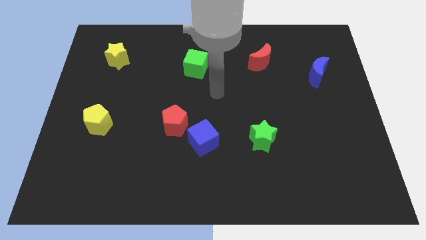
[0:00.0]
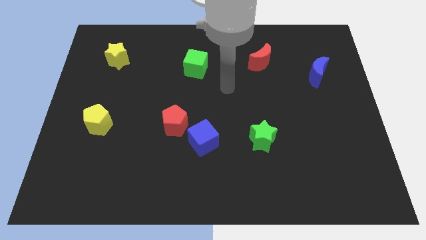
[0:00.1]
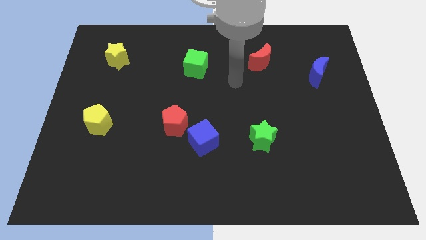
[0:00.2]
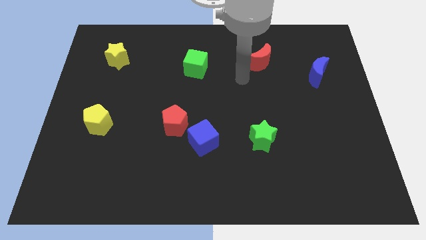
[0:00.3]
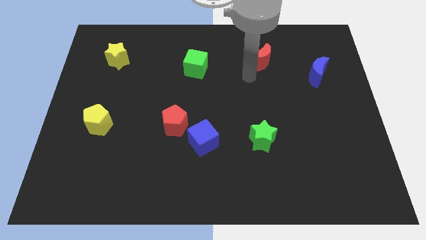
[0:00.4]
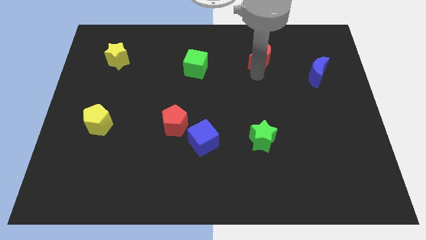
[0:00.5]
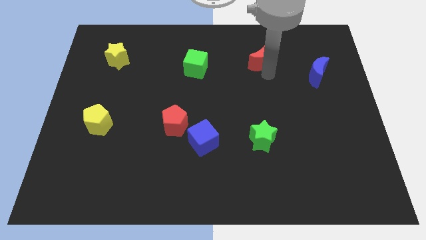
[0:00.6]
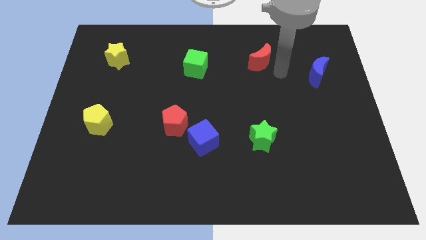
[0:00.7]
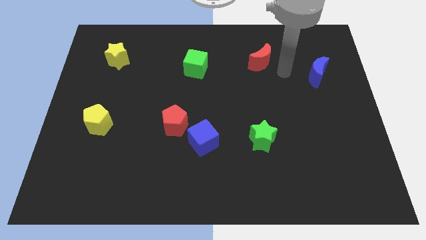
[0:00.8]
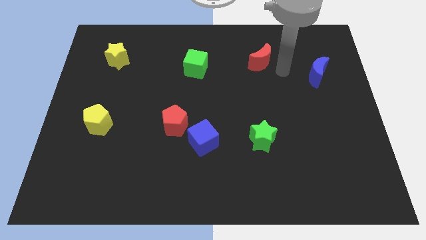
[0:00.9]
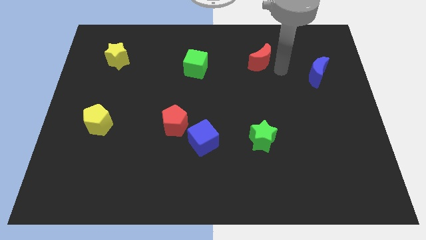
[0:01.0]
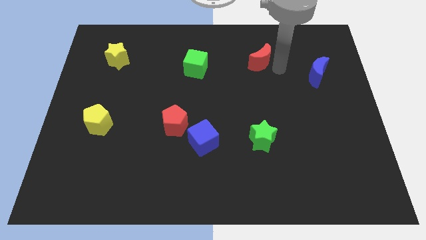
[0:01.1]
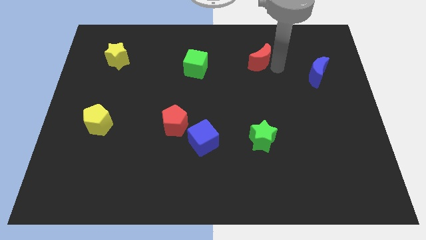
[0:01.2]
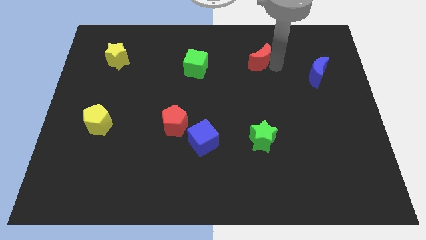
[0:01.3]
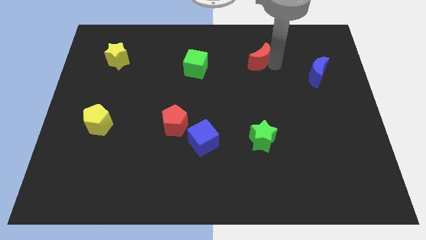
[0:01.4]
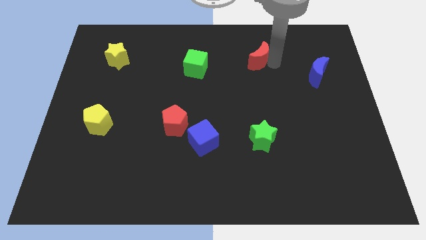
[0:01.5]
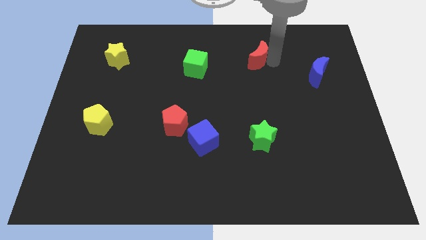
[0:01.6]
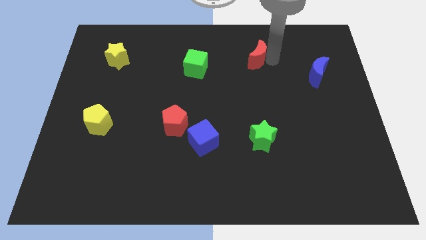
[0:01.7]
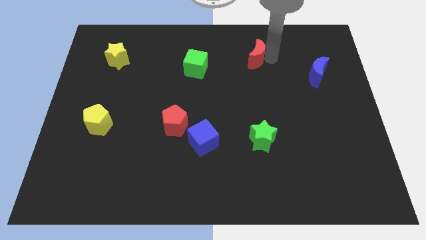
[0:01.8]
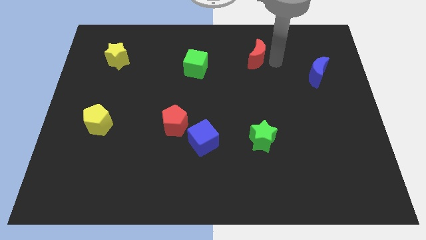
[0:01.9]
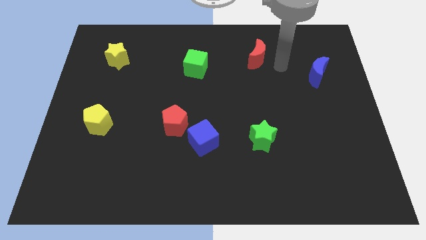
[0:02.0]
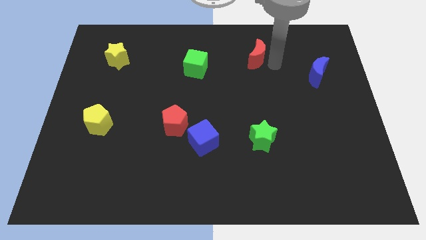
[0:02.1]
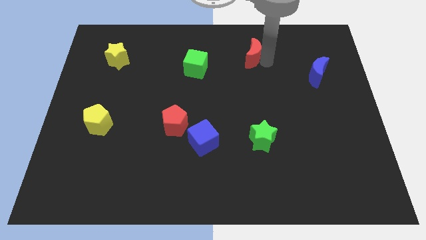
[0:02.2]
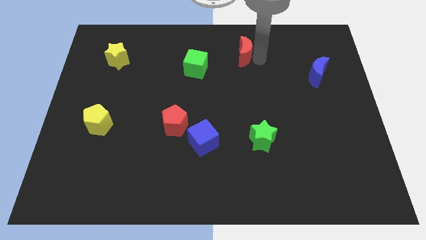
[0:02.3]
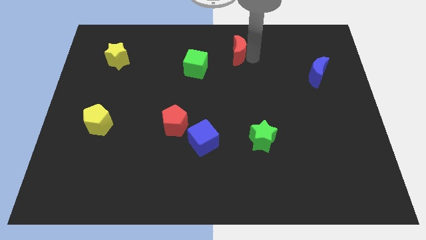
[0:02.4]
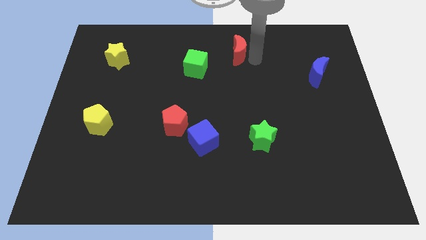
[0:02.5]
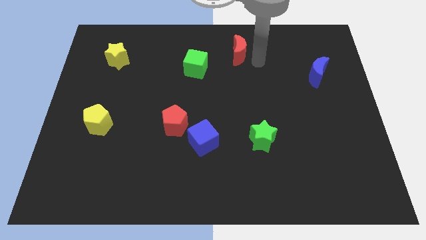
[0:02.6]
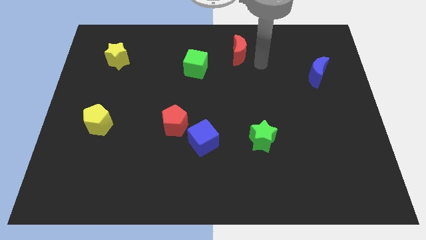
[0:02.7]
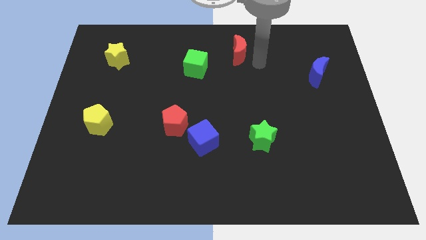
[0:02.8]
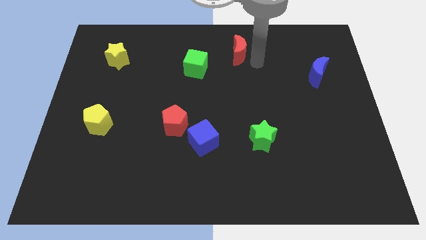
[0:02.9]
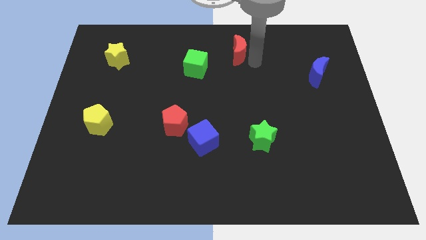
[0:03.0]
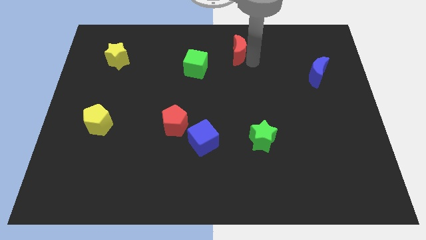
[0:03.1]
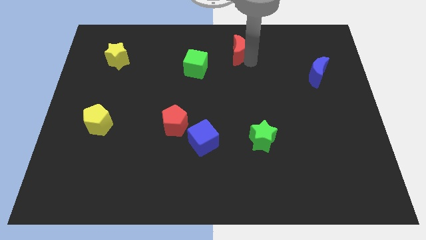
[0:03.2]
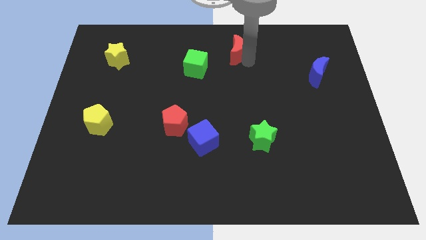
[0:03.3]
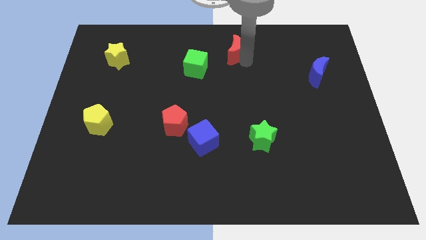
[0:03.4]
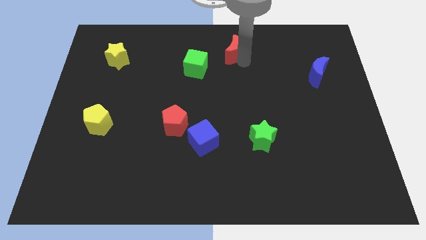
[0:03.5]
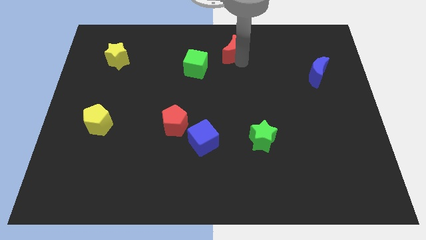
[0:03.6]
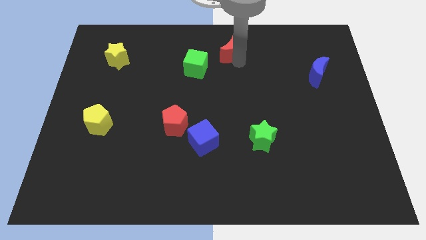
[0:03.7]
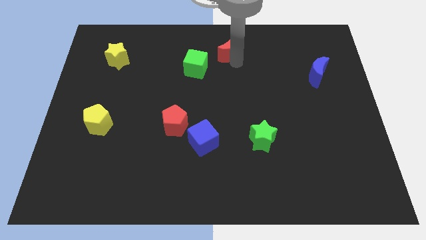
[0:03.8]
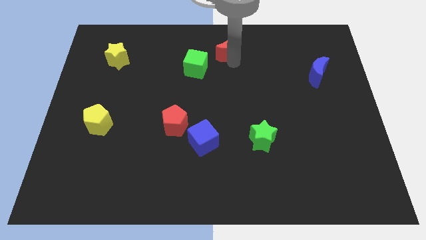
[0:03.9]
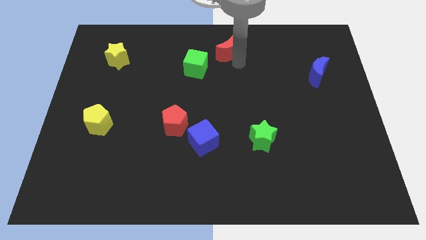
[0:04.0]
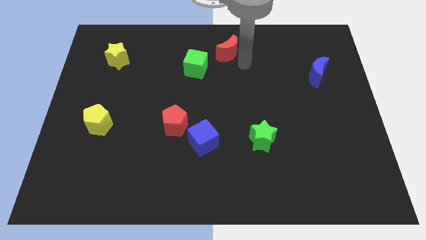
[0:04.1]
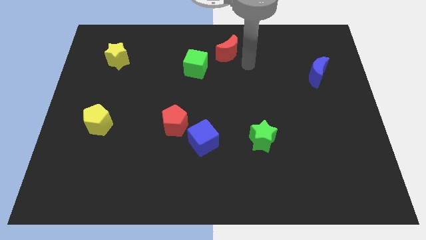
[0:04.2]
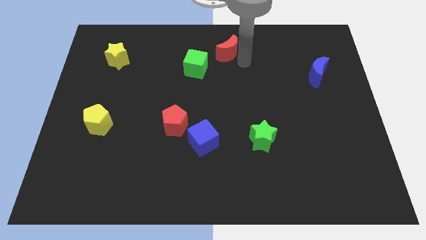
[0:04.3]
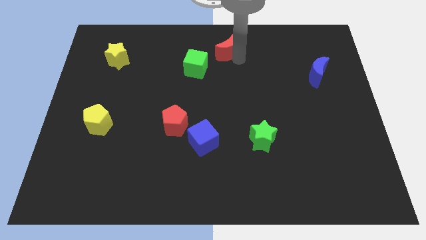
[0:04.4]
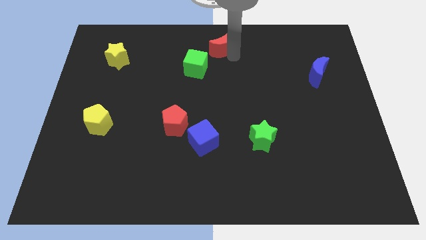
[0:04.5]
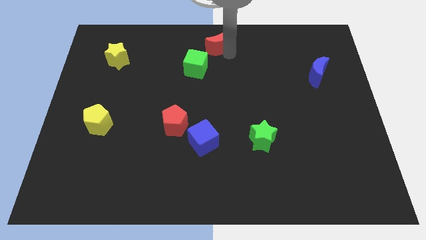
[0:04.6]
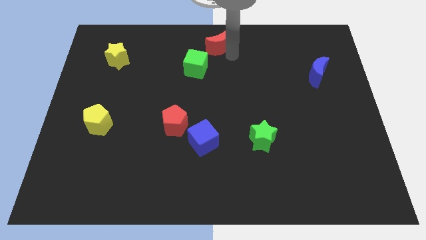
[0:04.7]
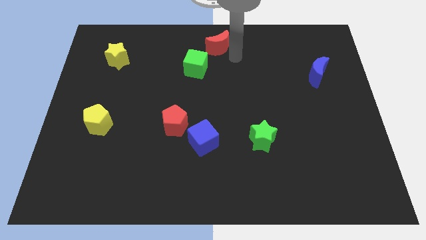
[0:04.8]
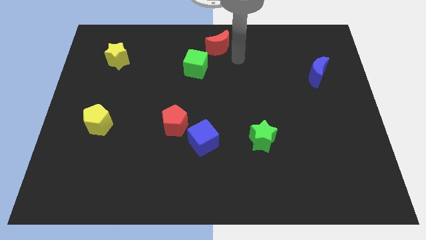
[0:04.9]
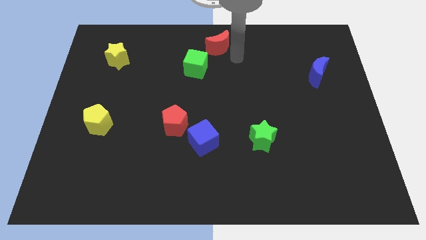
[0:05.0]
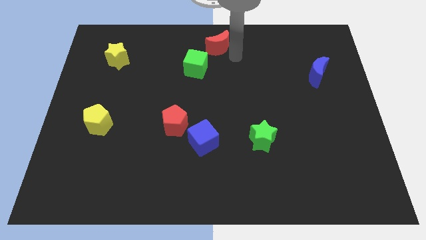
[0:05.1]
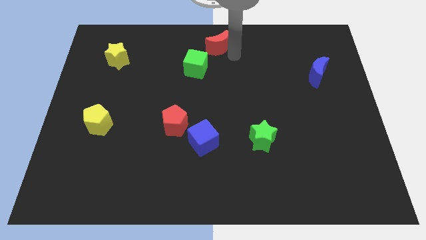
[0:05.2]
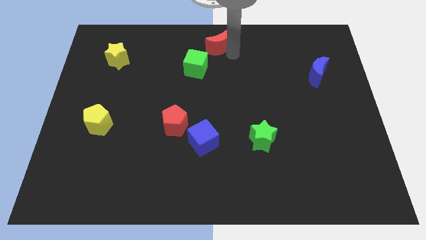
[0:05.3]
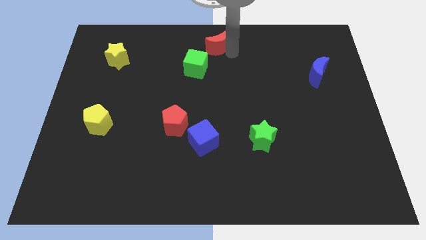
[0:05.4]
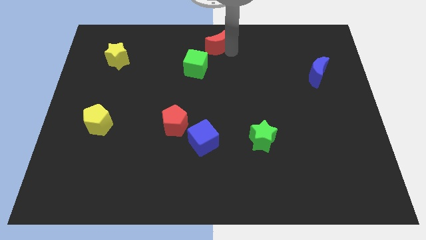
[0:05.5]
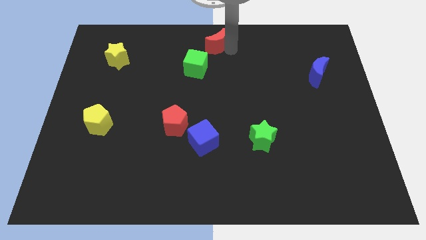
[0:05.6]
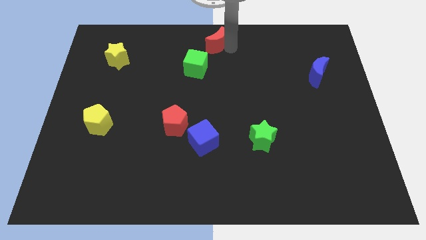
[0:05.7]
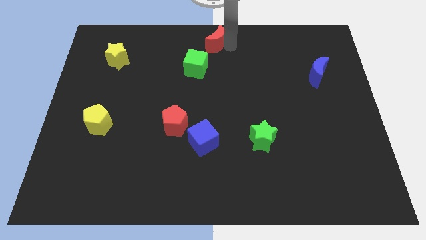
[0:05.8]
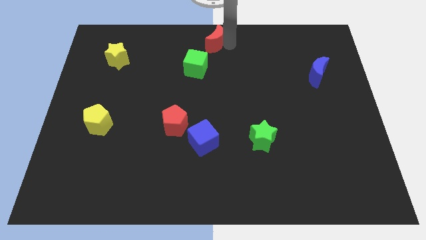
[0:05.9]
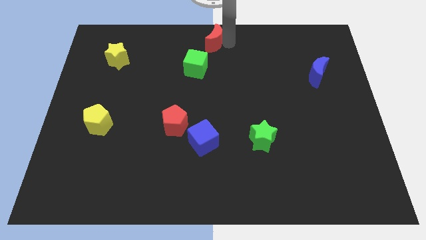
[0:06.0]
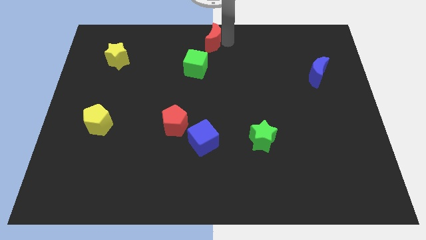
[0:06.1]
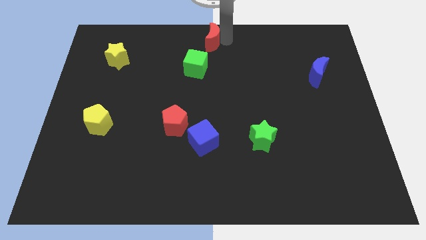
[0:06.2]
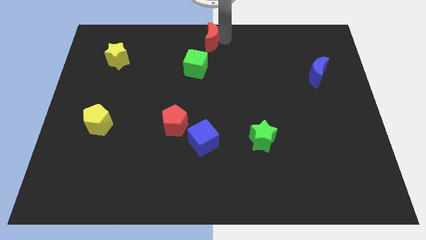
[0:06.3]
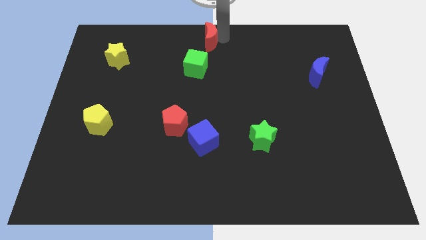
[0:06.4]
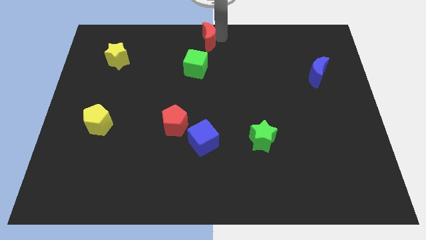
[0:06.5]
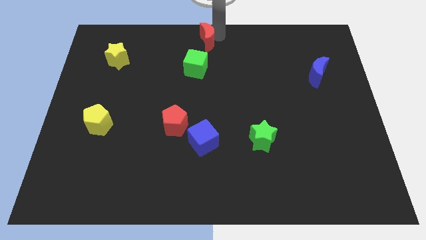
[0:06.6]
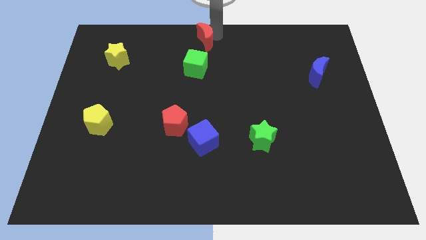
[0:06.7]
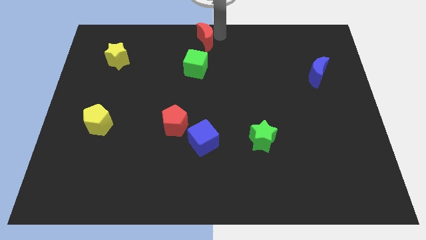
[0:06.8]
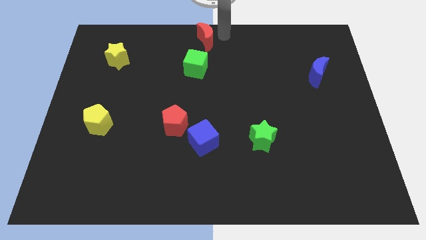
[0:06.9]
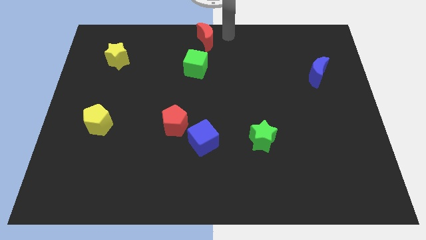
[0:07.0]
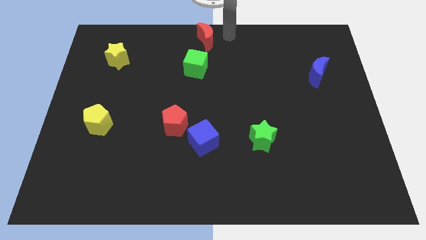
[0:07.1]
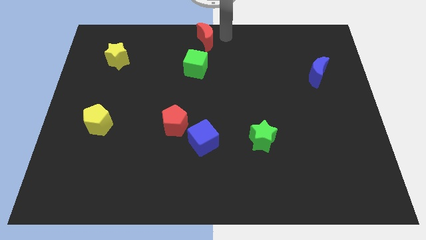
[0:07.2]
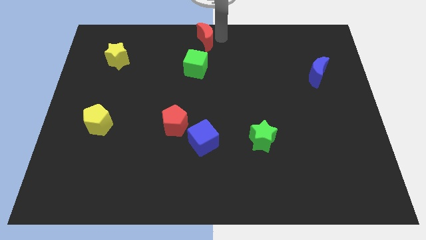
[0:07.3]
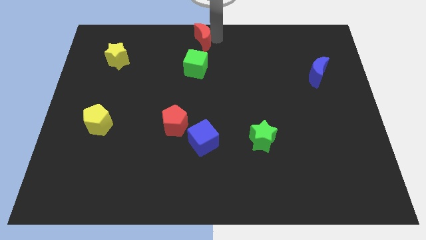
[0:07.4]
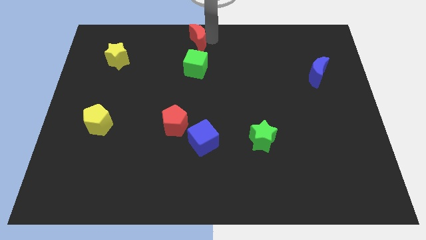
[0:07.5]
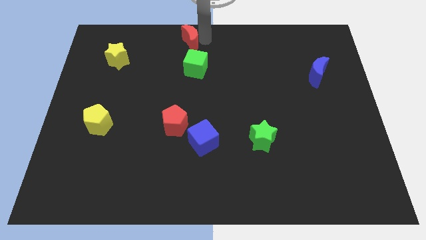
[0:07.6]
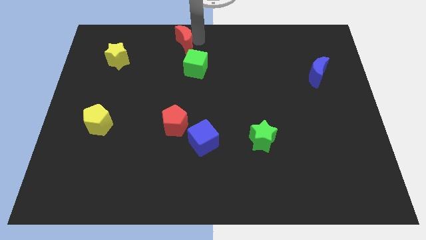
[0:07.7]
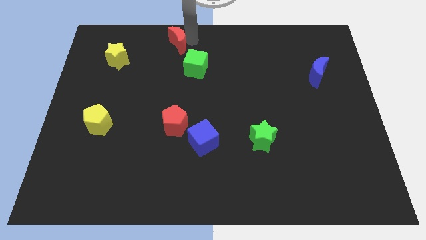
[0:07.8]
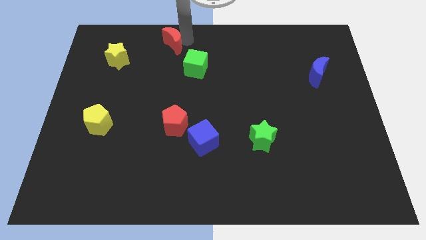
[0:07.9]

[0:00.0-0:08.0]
slide the red moon to the left

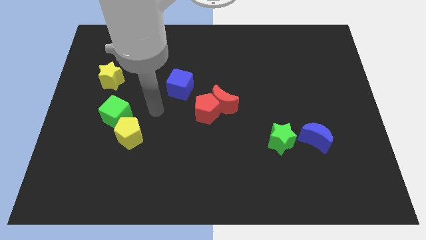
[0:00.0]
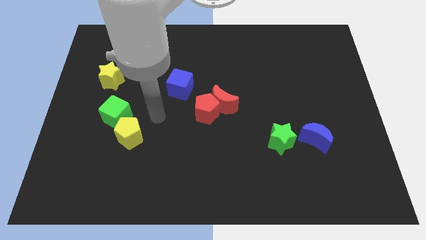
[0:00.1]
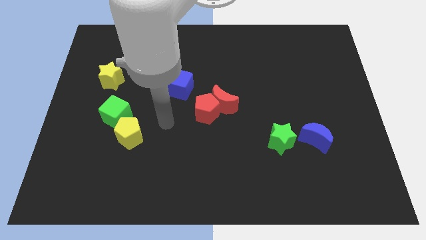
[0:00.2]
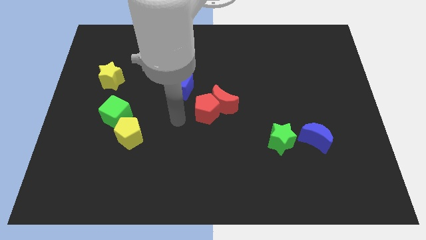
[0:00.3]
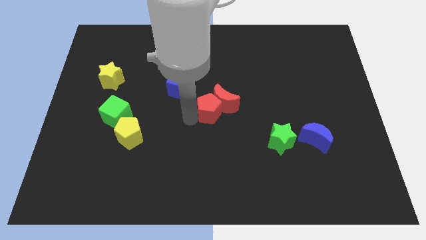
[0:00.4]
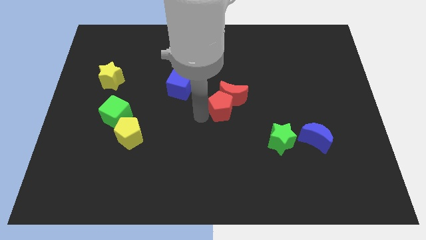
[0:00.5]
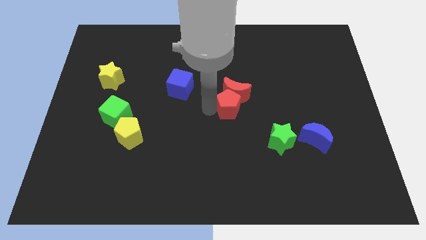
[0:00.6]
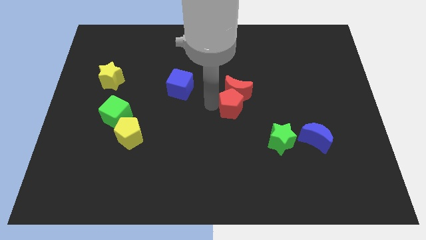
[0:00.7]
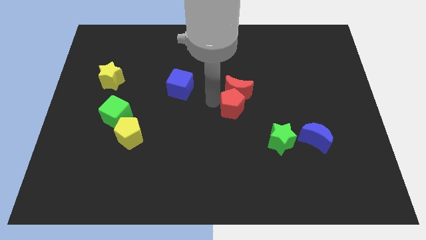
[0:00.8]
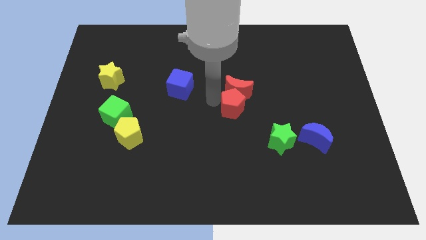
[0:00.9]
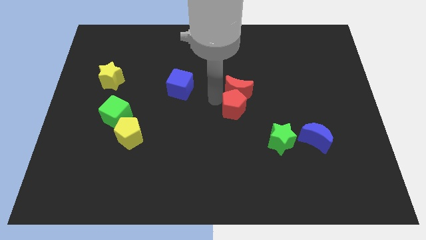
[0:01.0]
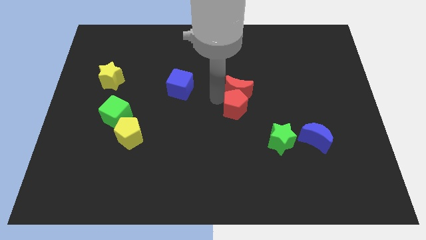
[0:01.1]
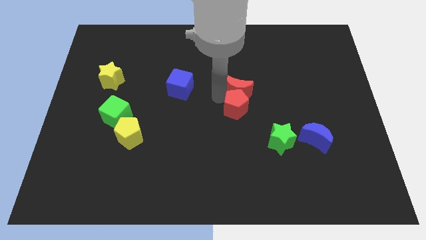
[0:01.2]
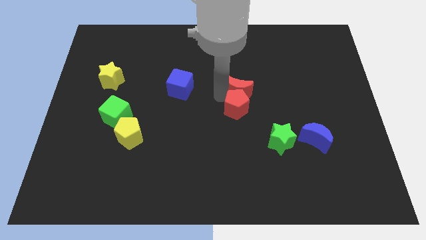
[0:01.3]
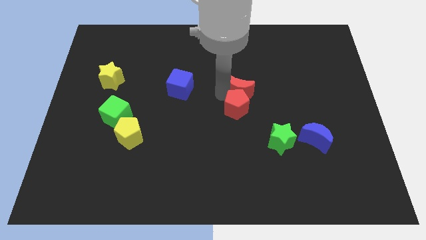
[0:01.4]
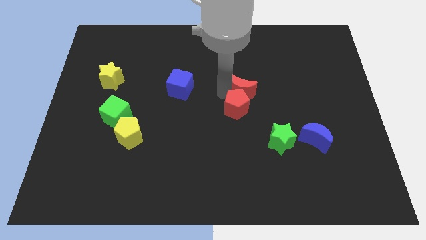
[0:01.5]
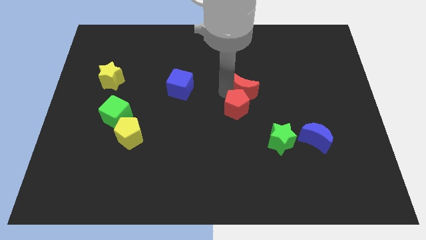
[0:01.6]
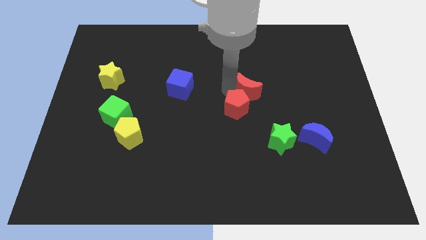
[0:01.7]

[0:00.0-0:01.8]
slightly slide the red moon diagonally up and right
